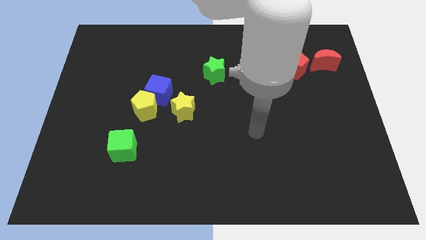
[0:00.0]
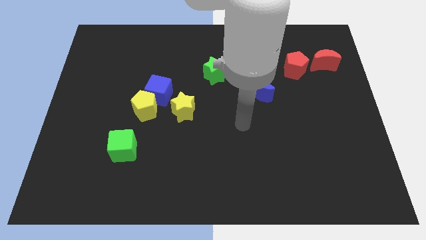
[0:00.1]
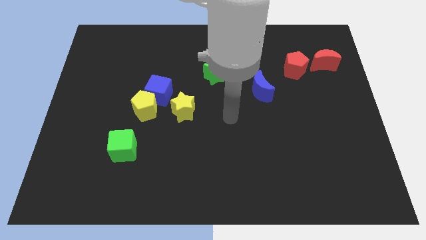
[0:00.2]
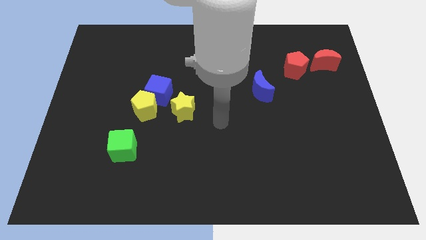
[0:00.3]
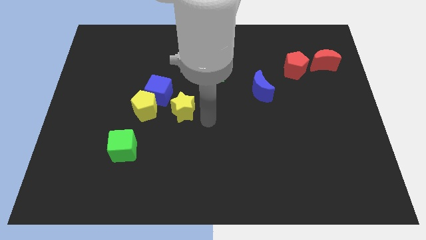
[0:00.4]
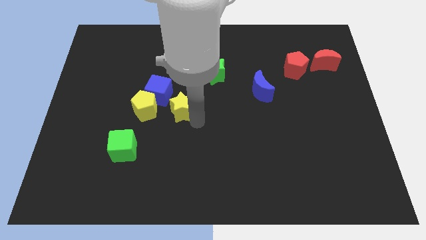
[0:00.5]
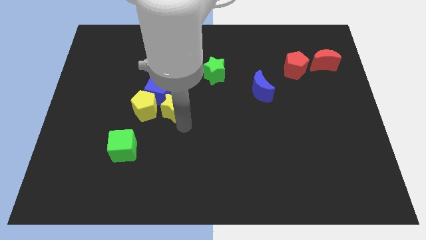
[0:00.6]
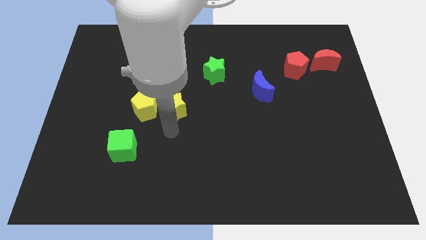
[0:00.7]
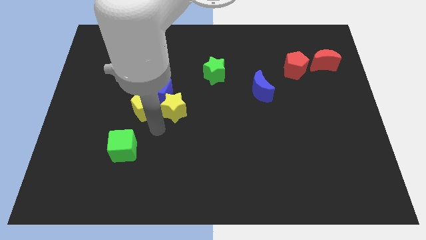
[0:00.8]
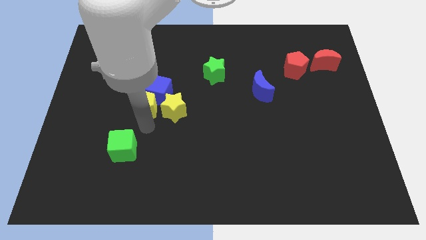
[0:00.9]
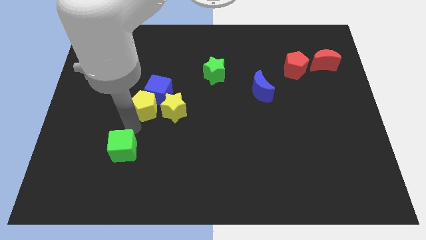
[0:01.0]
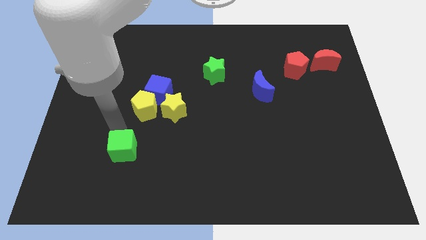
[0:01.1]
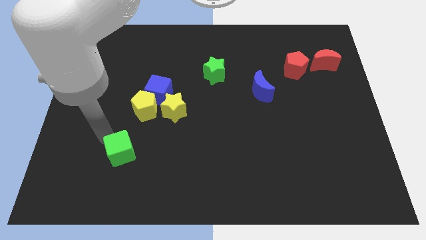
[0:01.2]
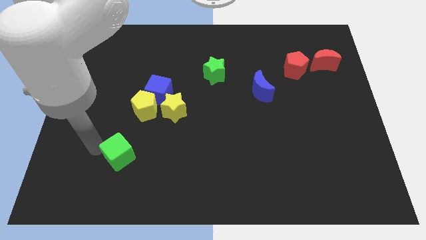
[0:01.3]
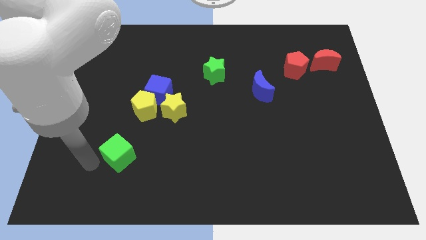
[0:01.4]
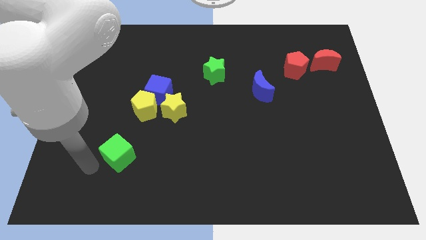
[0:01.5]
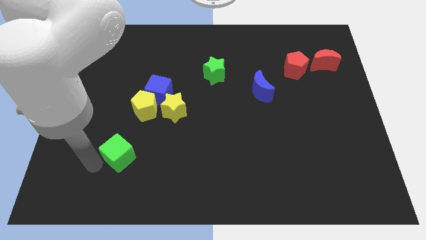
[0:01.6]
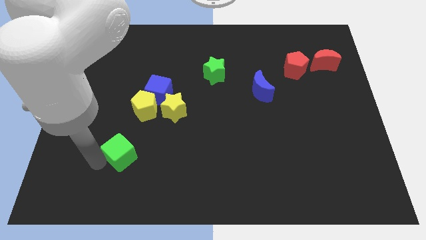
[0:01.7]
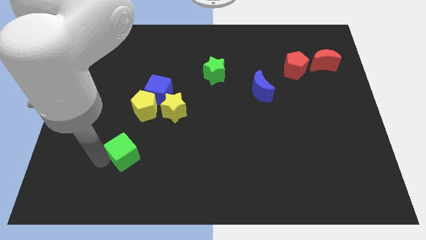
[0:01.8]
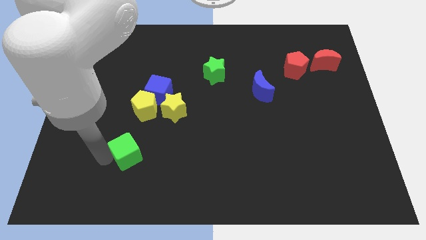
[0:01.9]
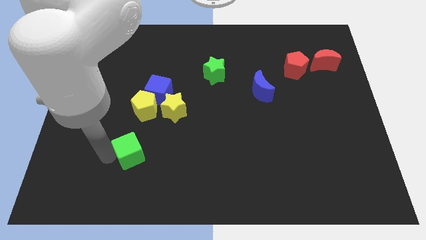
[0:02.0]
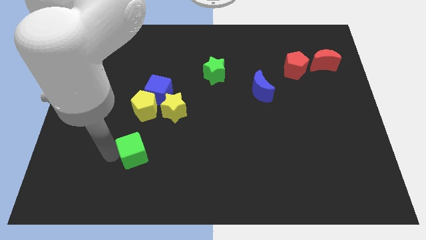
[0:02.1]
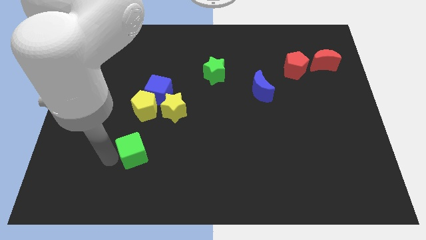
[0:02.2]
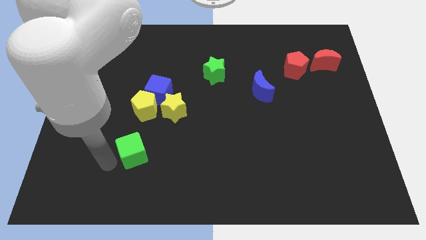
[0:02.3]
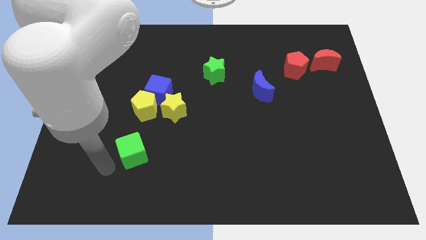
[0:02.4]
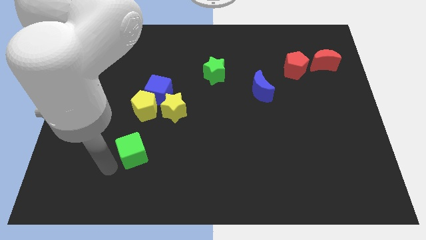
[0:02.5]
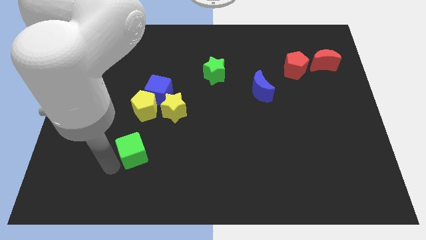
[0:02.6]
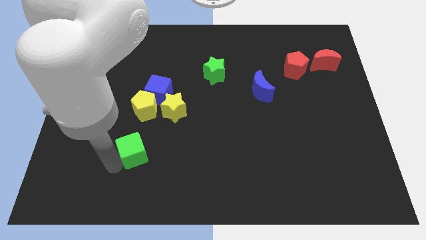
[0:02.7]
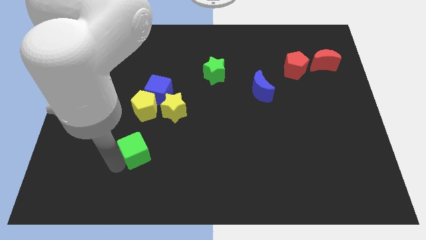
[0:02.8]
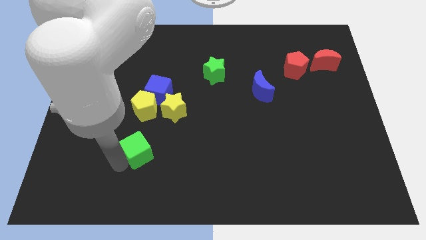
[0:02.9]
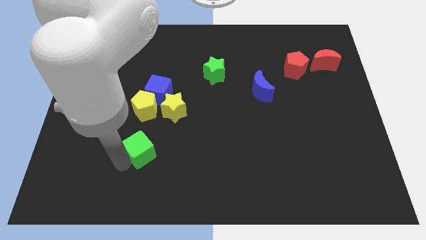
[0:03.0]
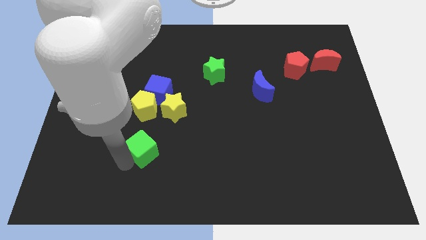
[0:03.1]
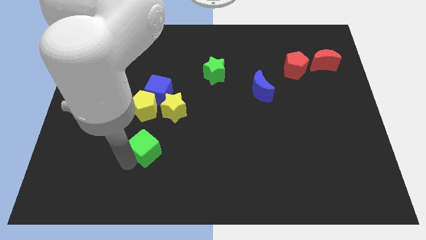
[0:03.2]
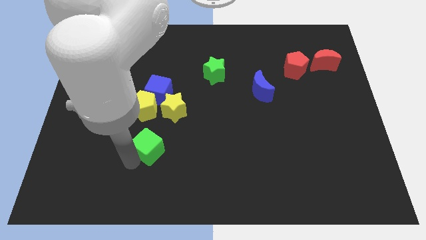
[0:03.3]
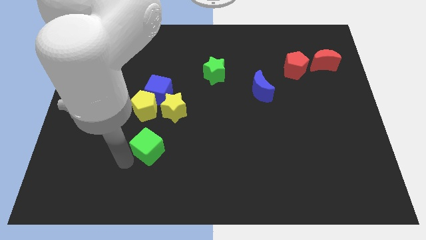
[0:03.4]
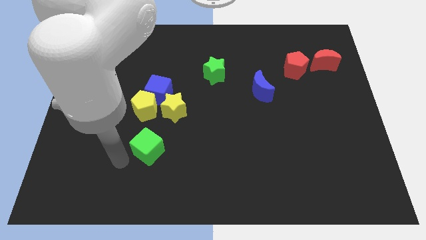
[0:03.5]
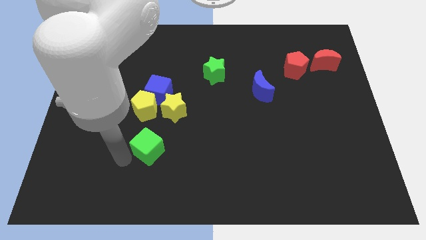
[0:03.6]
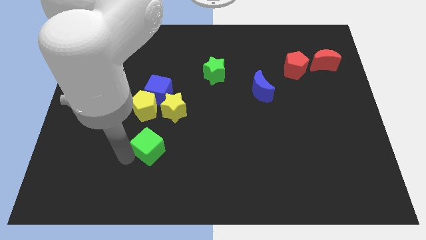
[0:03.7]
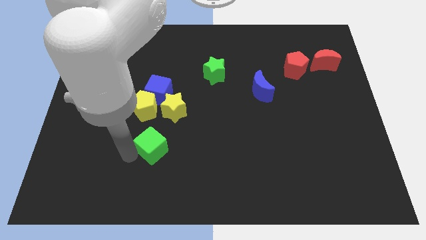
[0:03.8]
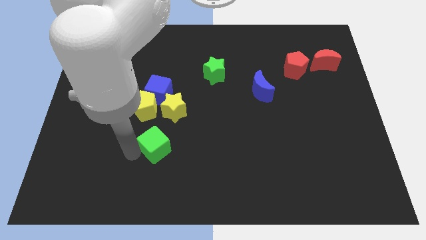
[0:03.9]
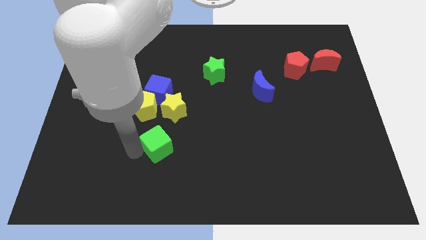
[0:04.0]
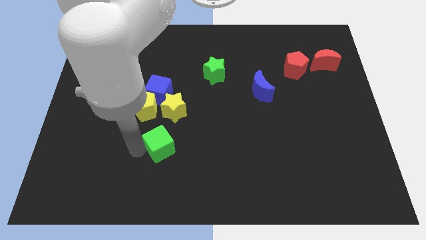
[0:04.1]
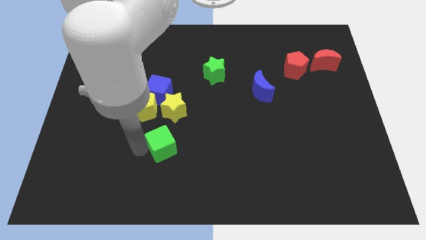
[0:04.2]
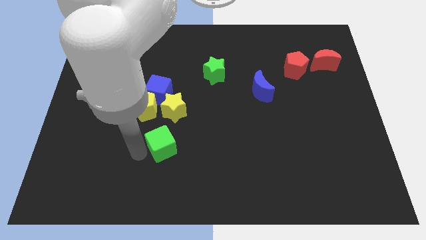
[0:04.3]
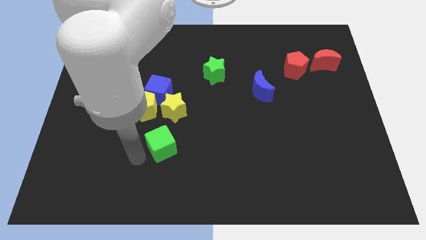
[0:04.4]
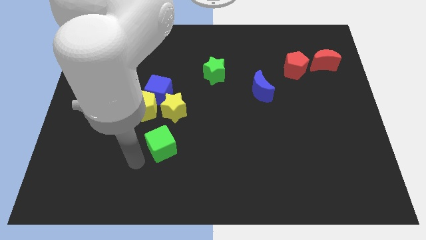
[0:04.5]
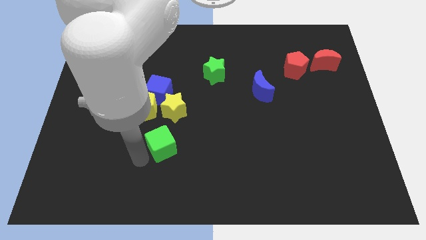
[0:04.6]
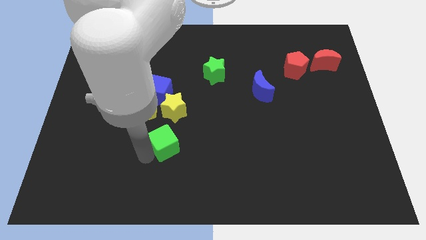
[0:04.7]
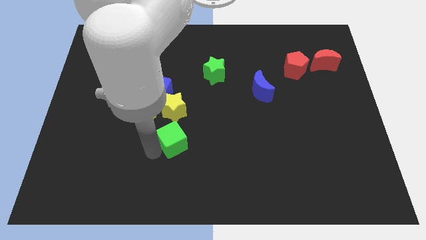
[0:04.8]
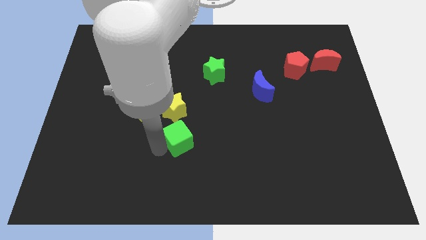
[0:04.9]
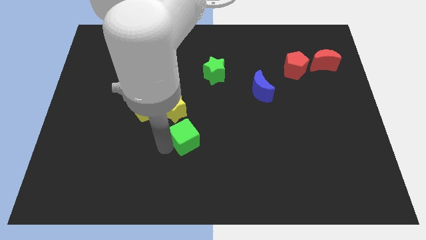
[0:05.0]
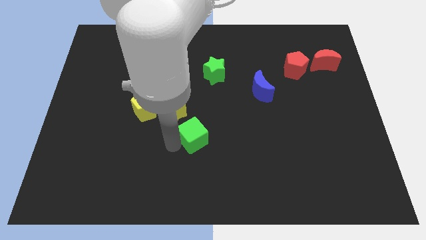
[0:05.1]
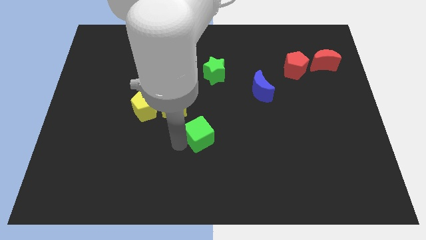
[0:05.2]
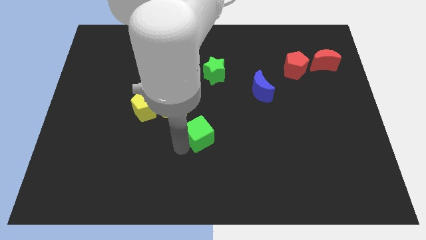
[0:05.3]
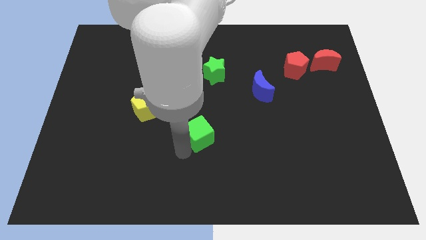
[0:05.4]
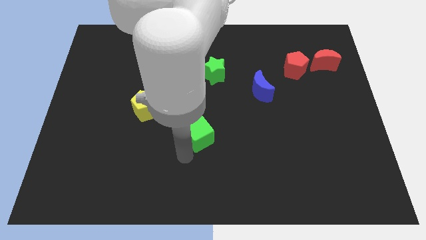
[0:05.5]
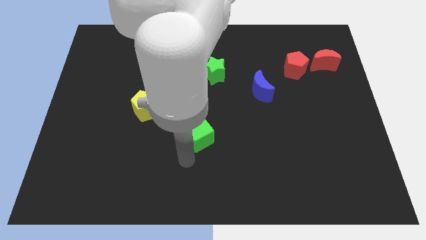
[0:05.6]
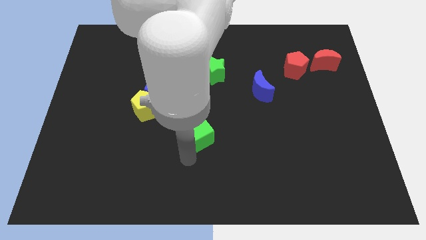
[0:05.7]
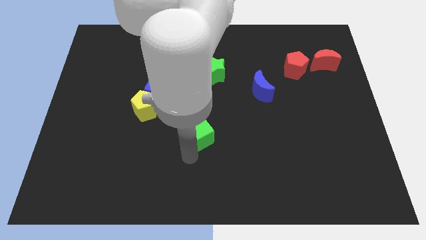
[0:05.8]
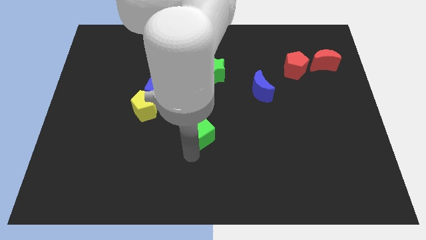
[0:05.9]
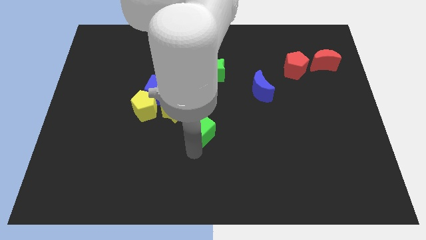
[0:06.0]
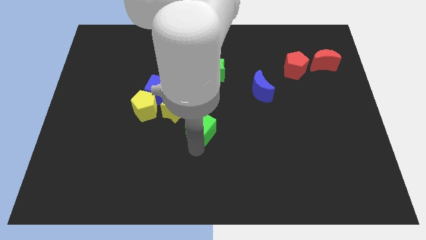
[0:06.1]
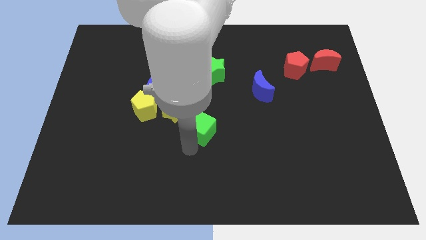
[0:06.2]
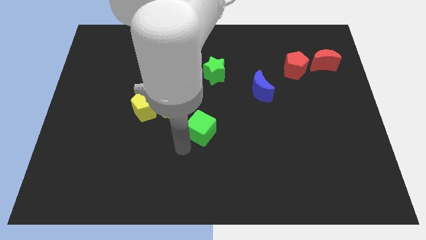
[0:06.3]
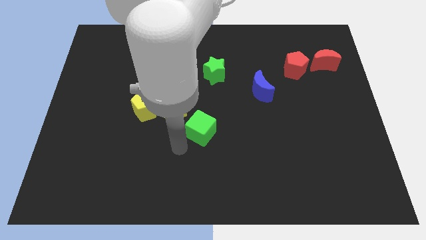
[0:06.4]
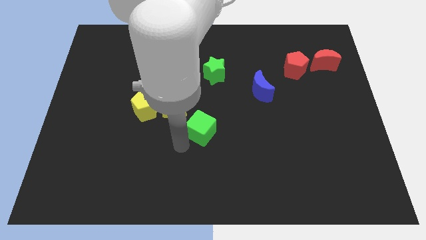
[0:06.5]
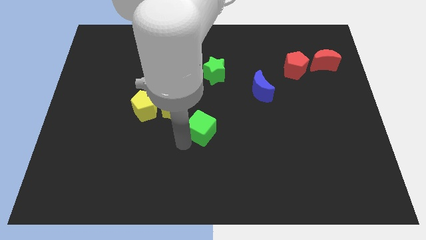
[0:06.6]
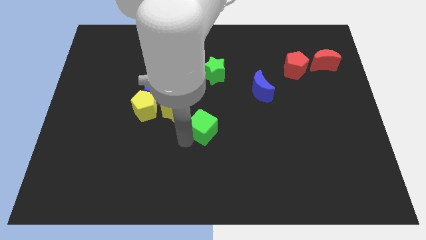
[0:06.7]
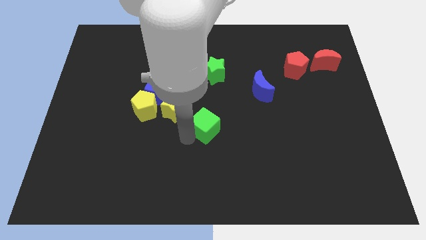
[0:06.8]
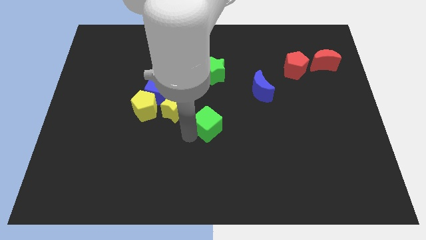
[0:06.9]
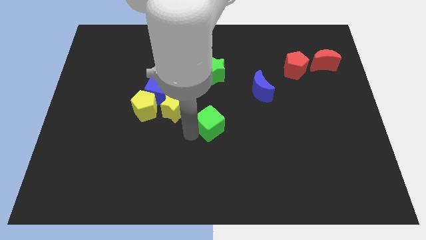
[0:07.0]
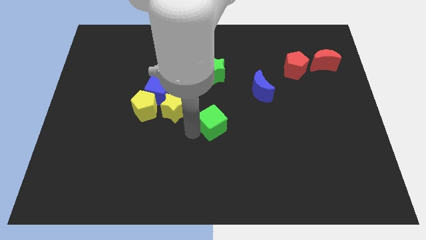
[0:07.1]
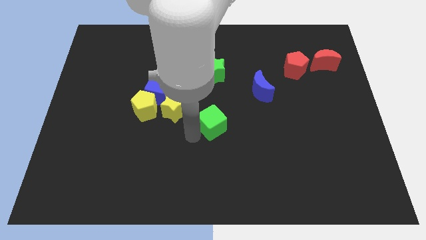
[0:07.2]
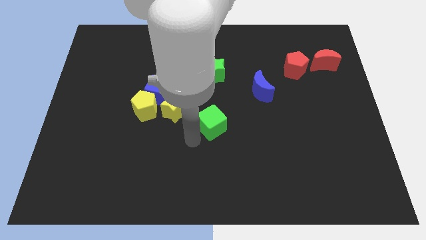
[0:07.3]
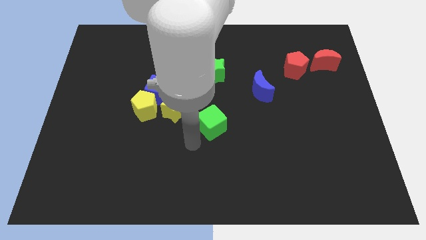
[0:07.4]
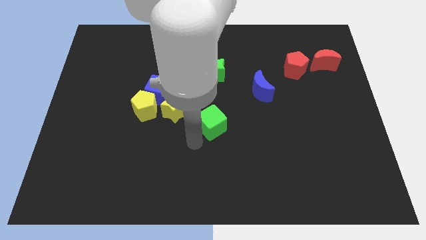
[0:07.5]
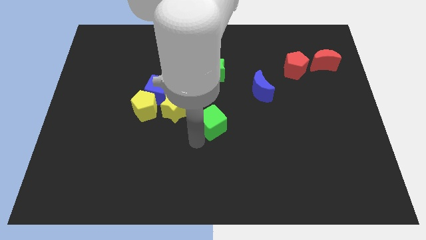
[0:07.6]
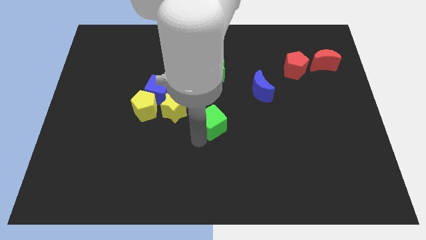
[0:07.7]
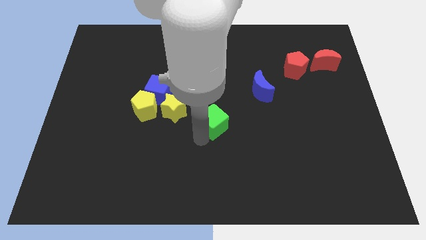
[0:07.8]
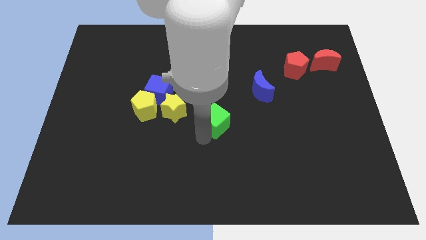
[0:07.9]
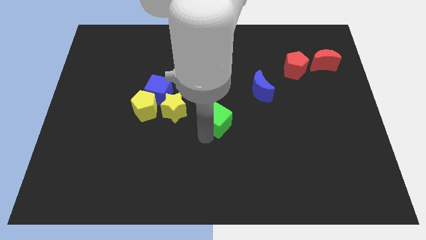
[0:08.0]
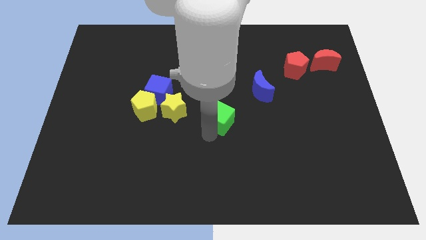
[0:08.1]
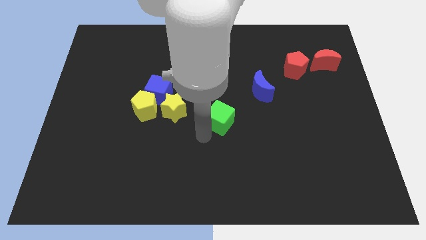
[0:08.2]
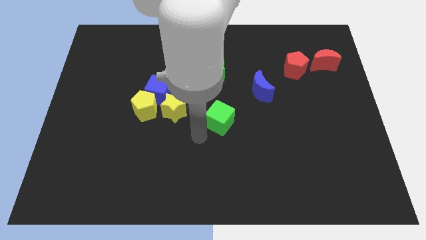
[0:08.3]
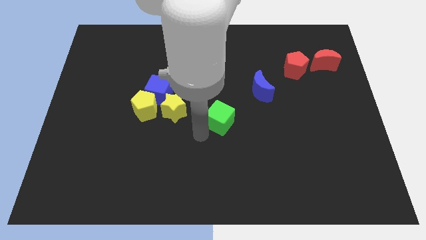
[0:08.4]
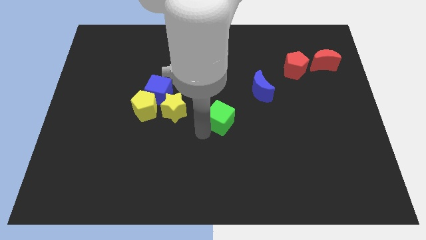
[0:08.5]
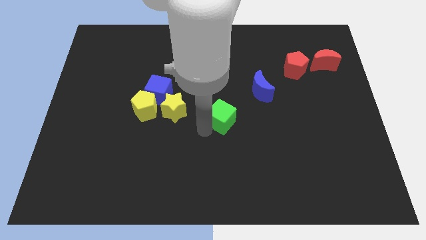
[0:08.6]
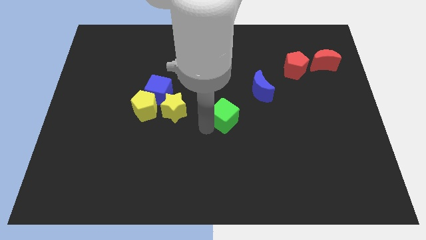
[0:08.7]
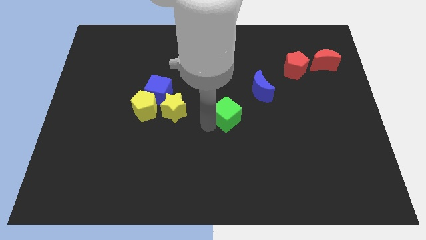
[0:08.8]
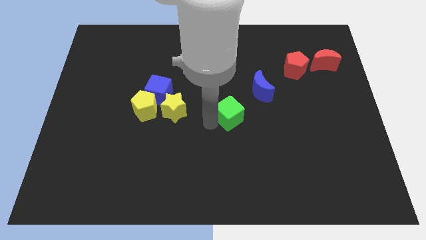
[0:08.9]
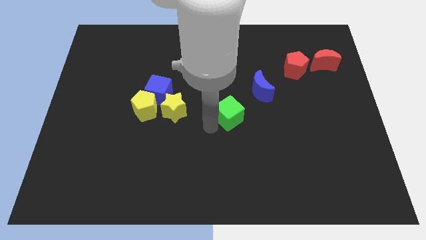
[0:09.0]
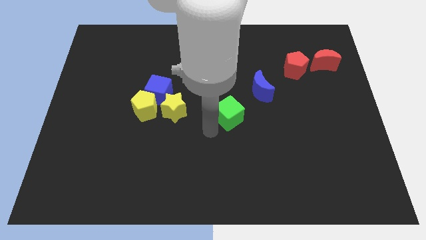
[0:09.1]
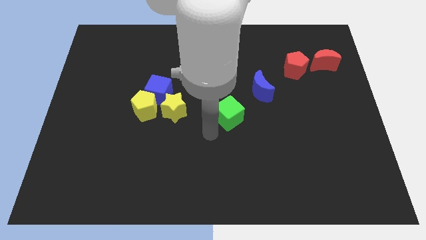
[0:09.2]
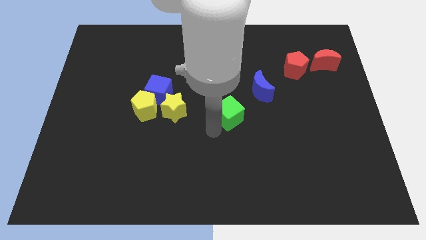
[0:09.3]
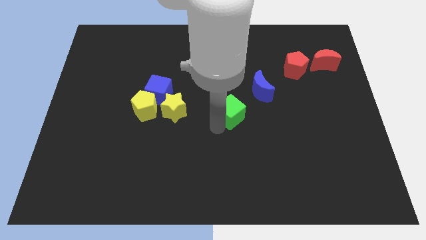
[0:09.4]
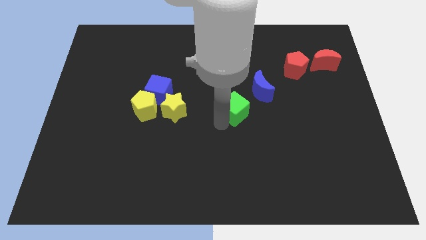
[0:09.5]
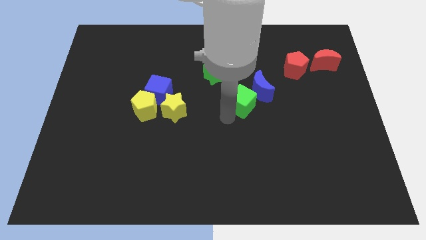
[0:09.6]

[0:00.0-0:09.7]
put the green cube to the blue moon
